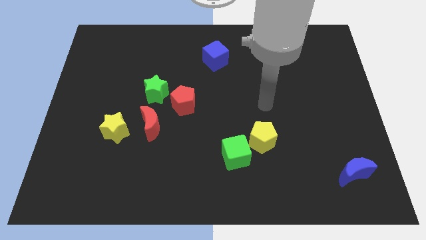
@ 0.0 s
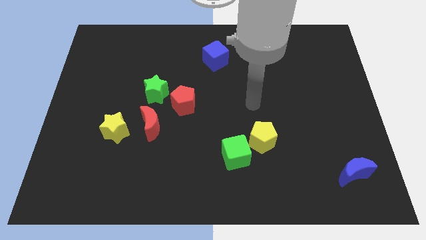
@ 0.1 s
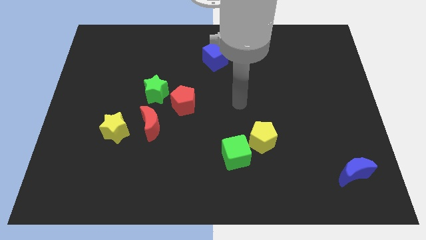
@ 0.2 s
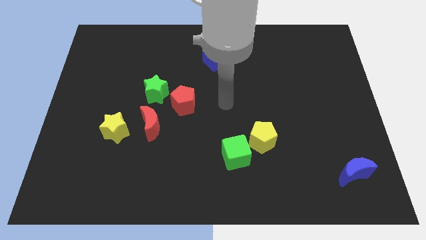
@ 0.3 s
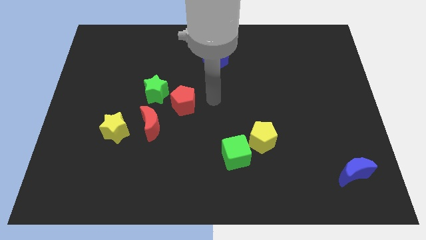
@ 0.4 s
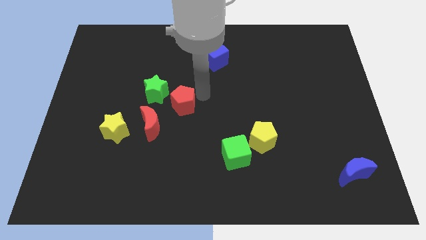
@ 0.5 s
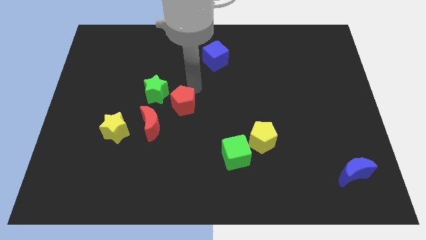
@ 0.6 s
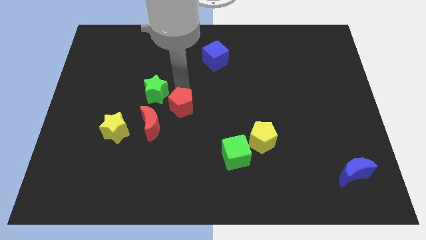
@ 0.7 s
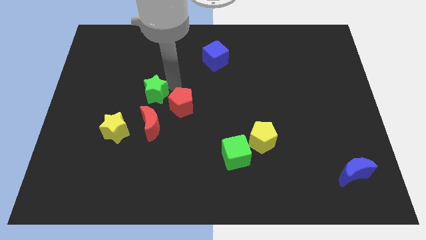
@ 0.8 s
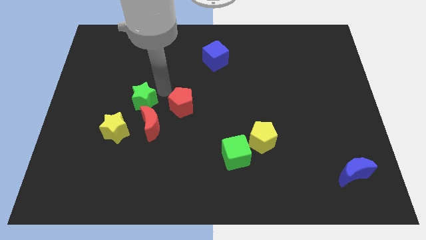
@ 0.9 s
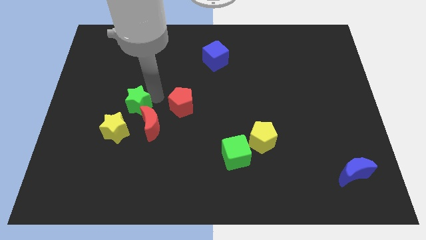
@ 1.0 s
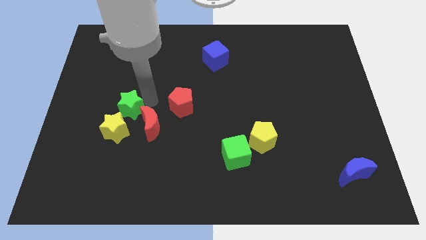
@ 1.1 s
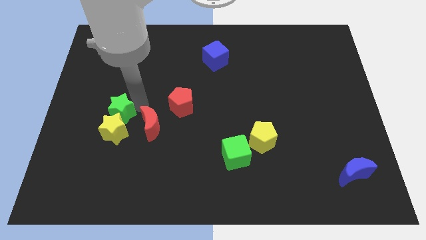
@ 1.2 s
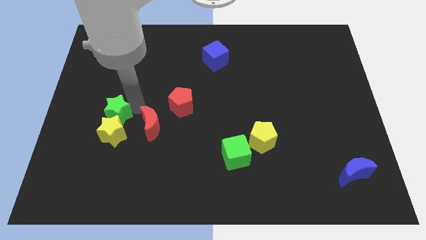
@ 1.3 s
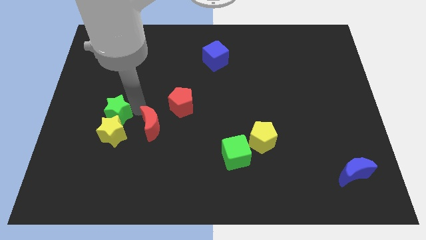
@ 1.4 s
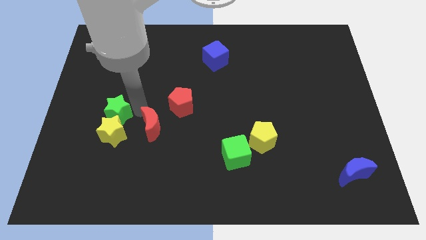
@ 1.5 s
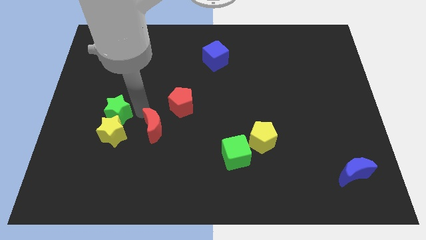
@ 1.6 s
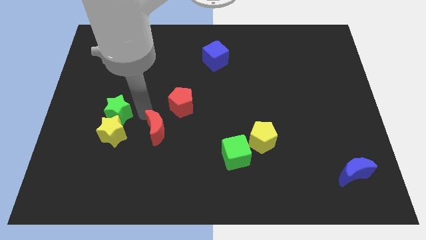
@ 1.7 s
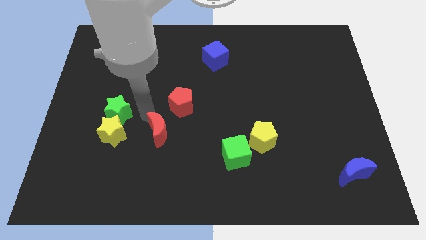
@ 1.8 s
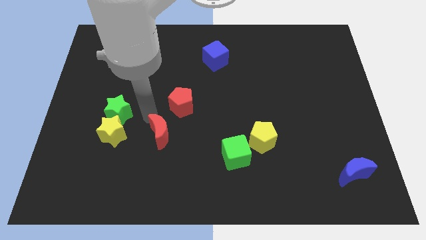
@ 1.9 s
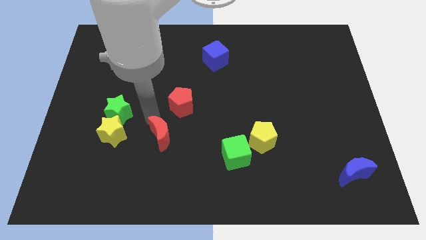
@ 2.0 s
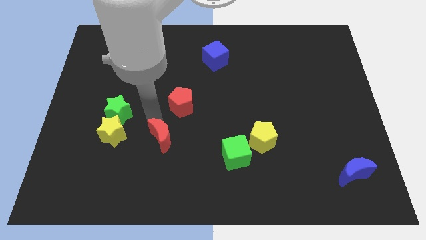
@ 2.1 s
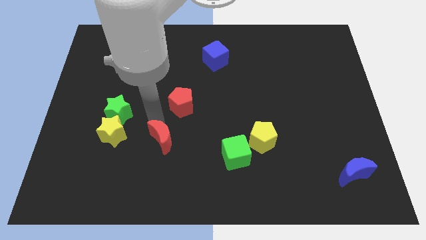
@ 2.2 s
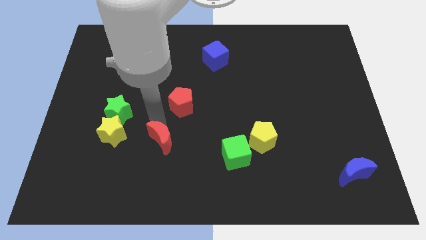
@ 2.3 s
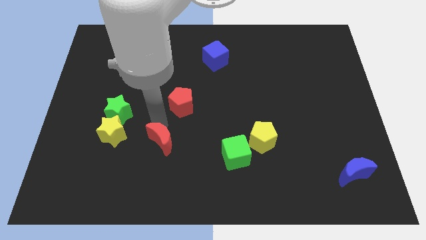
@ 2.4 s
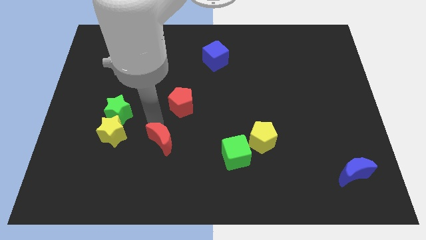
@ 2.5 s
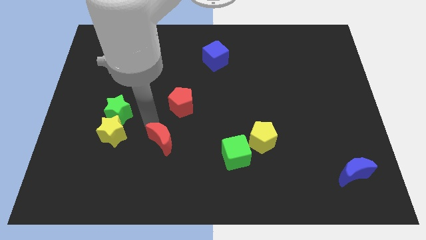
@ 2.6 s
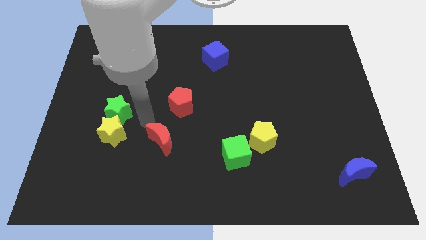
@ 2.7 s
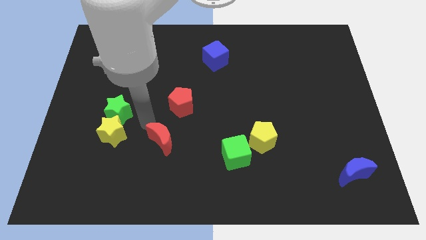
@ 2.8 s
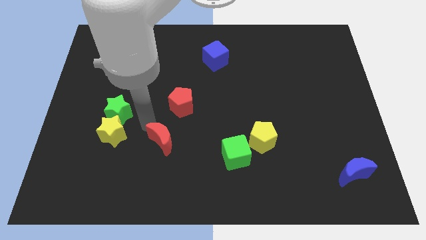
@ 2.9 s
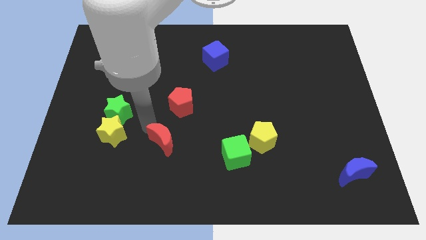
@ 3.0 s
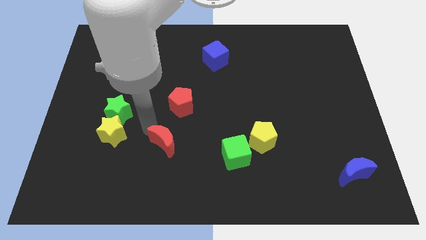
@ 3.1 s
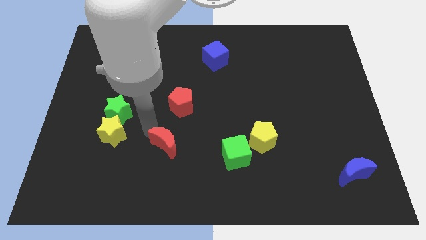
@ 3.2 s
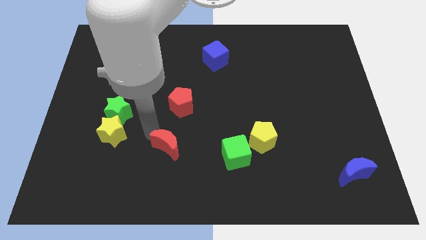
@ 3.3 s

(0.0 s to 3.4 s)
move the red moon down and then right a little

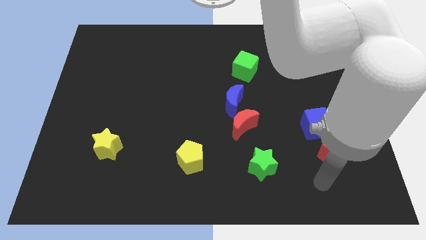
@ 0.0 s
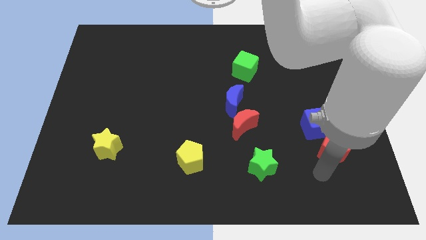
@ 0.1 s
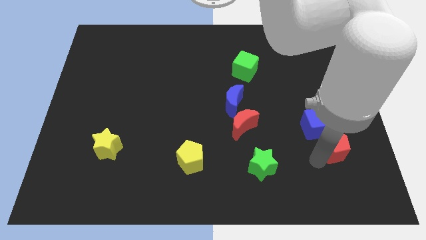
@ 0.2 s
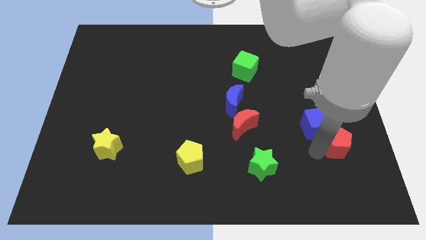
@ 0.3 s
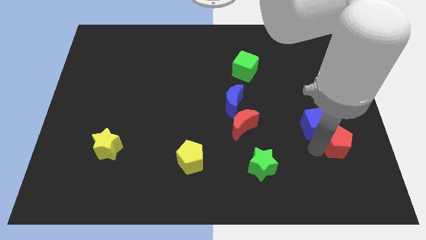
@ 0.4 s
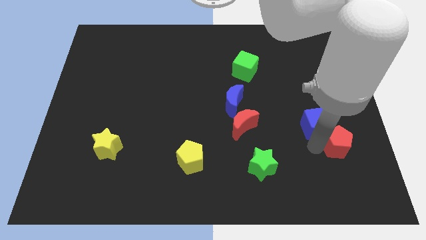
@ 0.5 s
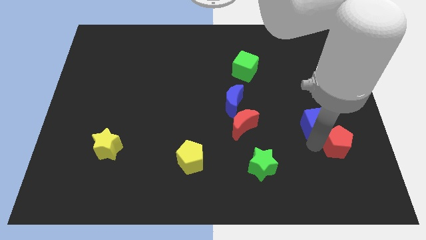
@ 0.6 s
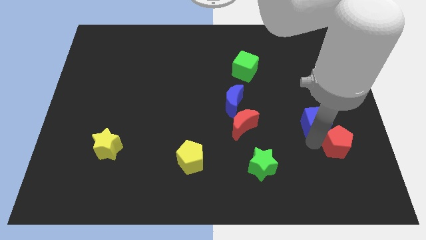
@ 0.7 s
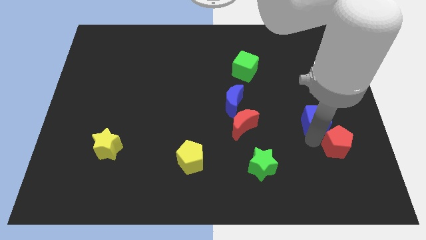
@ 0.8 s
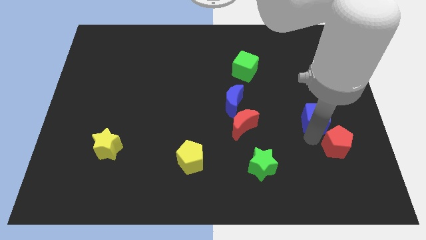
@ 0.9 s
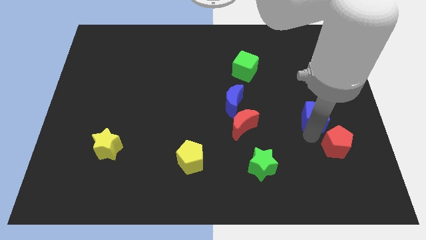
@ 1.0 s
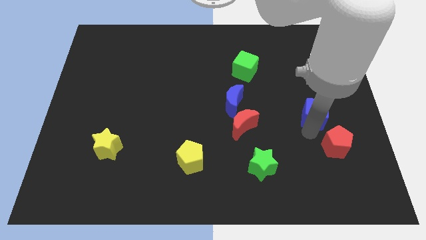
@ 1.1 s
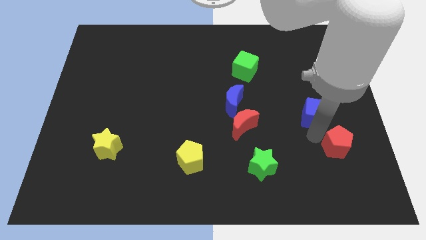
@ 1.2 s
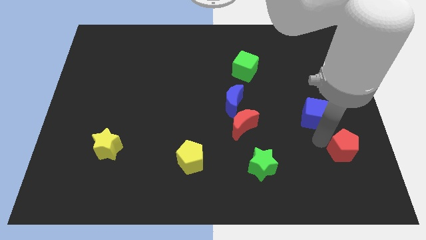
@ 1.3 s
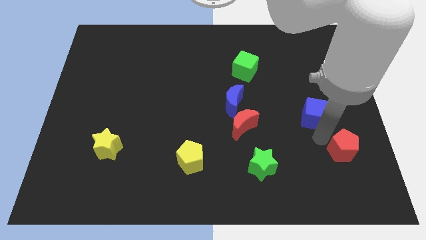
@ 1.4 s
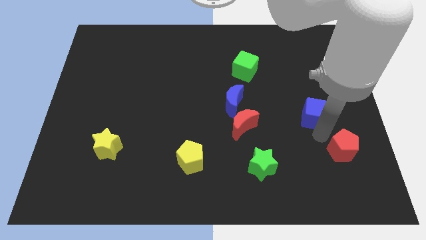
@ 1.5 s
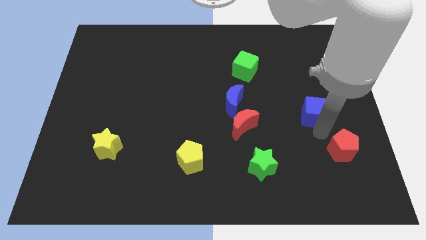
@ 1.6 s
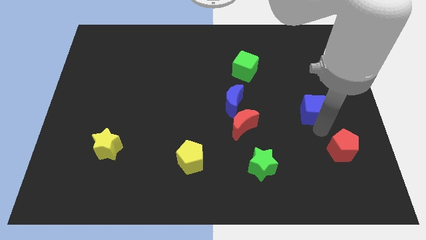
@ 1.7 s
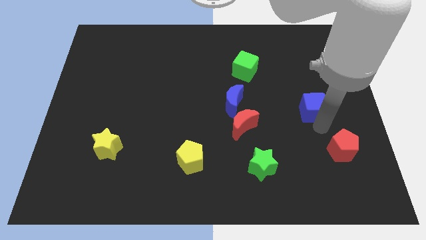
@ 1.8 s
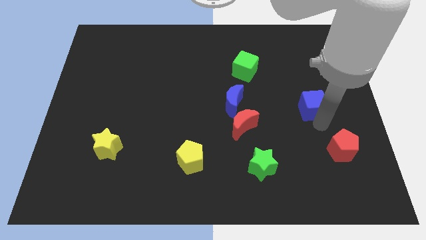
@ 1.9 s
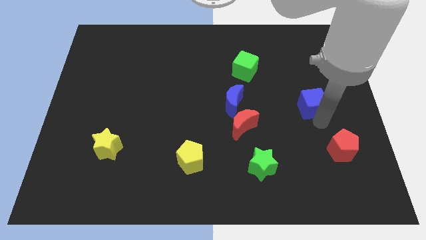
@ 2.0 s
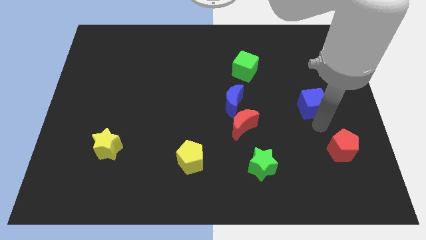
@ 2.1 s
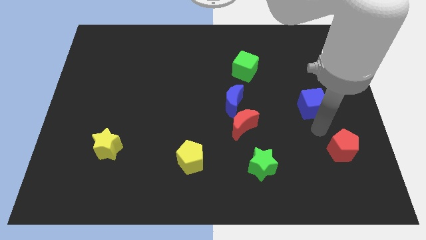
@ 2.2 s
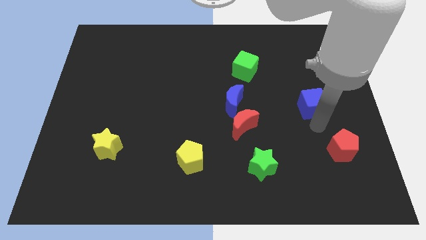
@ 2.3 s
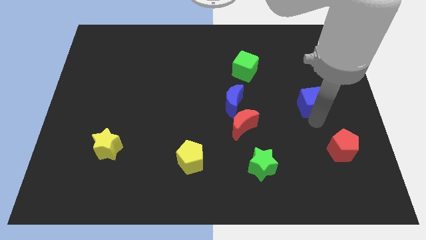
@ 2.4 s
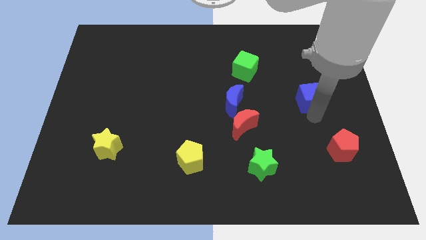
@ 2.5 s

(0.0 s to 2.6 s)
push the blue cube up a little bit

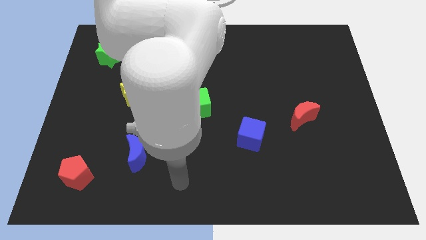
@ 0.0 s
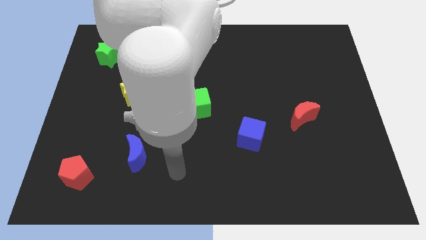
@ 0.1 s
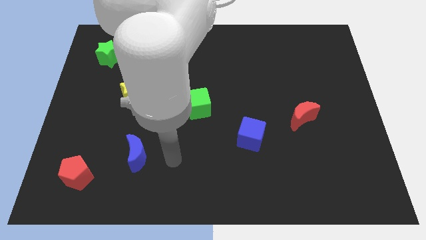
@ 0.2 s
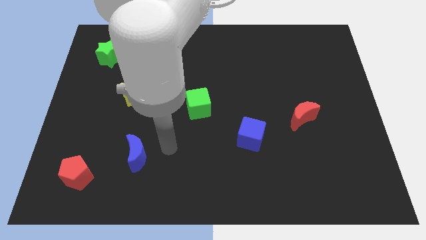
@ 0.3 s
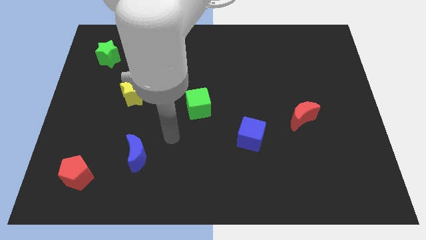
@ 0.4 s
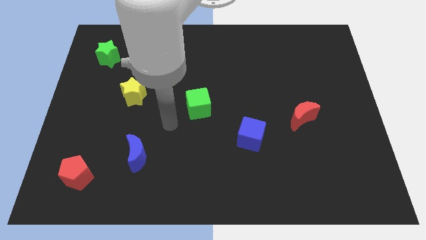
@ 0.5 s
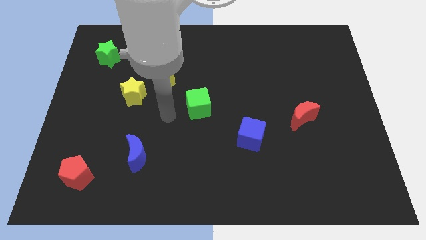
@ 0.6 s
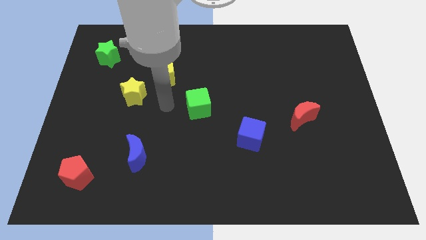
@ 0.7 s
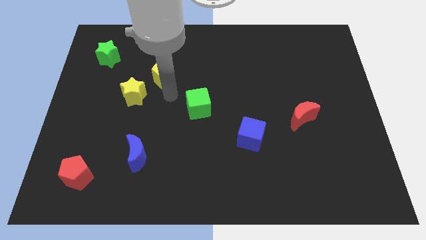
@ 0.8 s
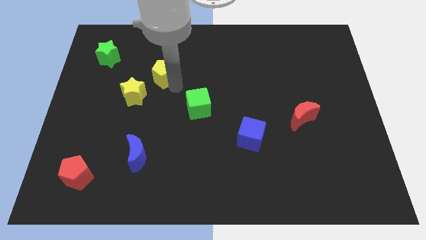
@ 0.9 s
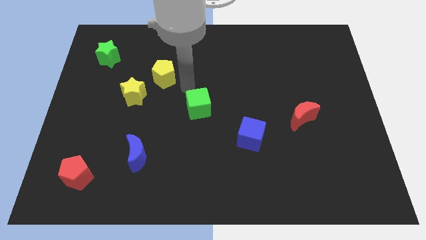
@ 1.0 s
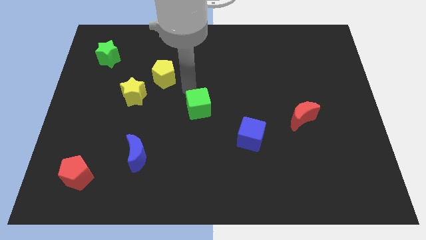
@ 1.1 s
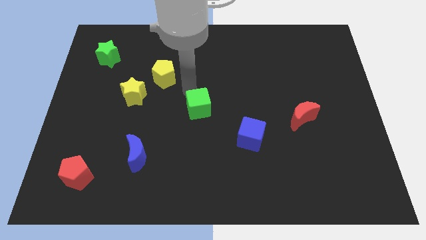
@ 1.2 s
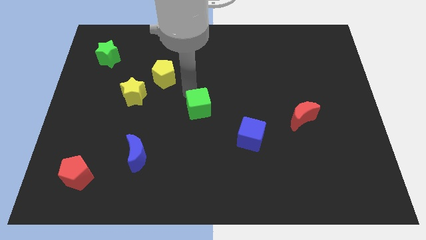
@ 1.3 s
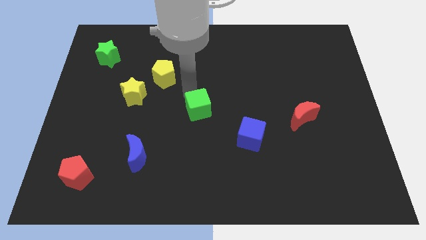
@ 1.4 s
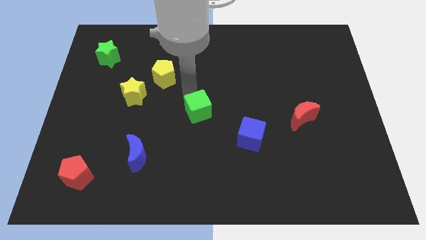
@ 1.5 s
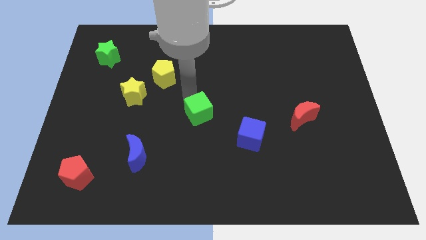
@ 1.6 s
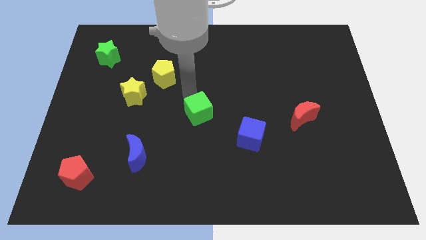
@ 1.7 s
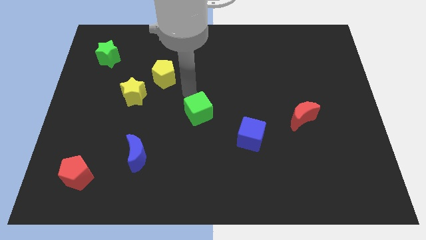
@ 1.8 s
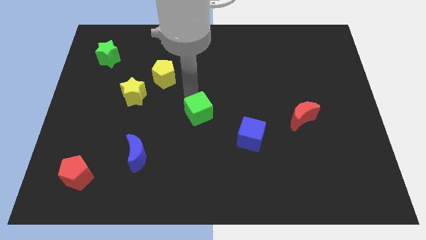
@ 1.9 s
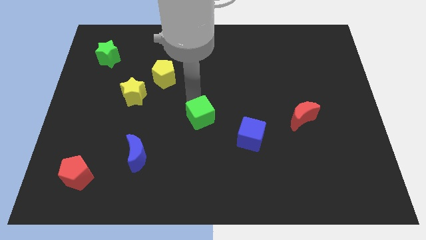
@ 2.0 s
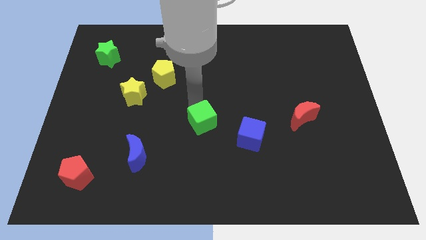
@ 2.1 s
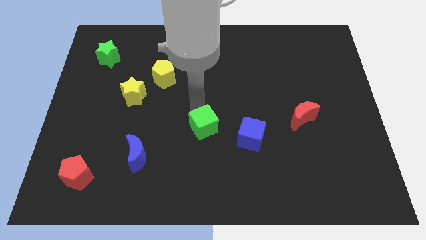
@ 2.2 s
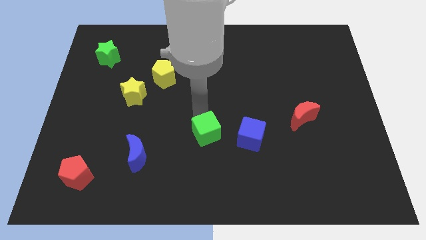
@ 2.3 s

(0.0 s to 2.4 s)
slide the green cube a little downwards
